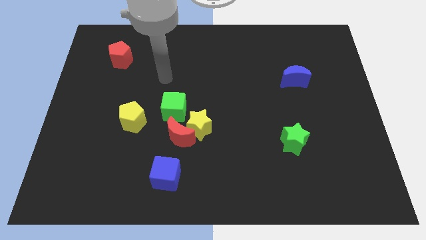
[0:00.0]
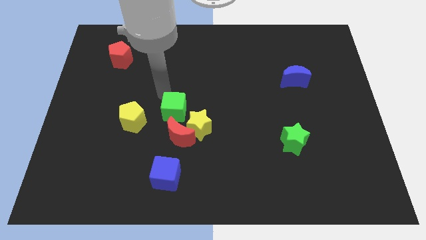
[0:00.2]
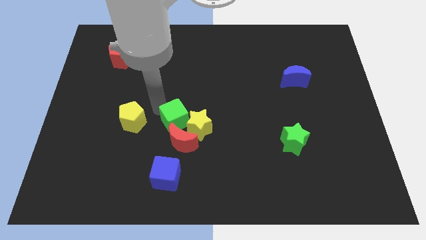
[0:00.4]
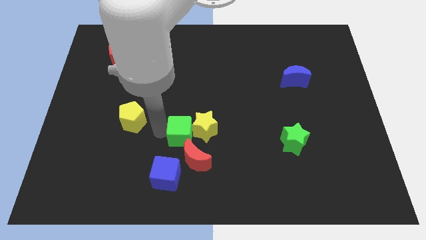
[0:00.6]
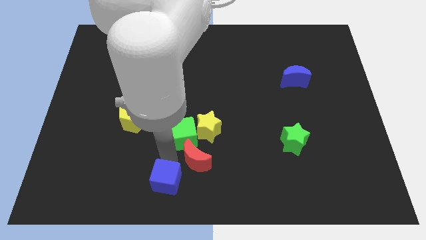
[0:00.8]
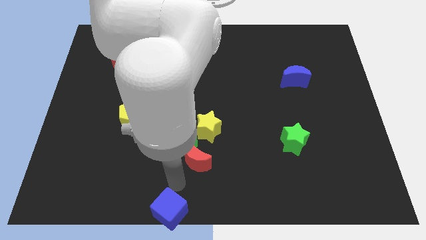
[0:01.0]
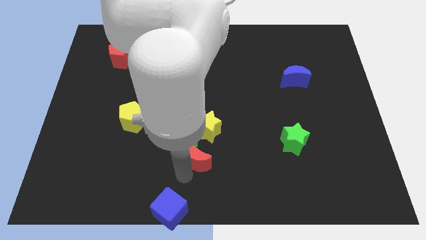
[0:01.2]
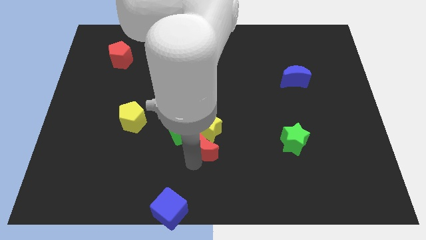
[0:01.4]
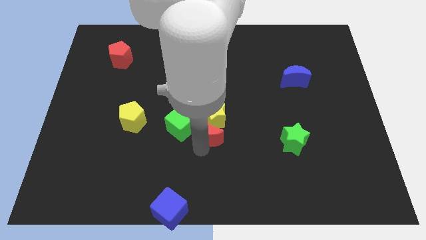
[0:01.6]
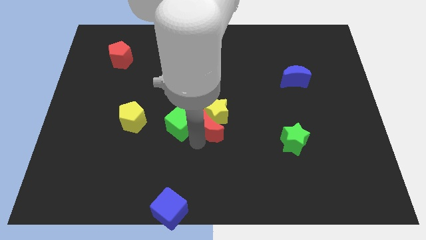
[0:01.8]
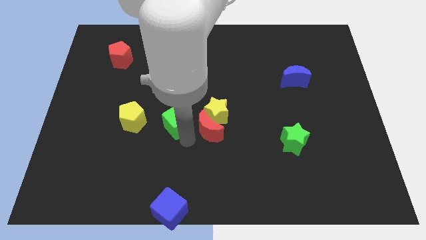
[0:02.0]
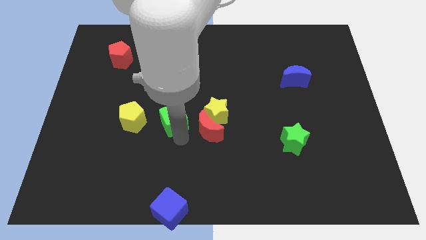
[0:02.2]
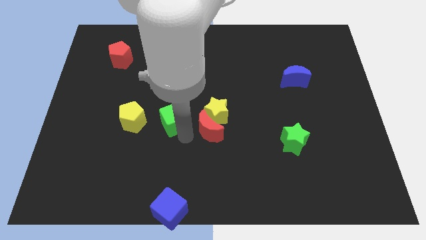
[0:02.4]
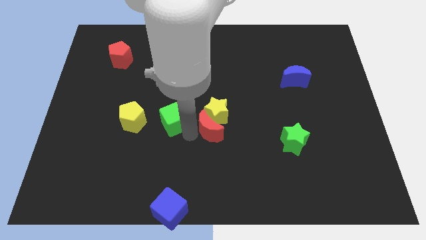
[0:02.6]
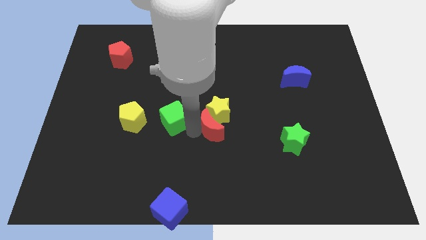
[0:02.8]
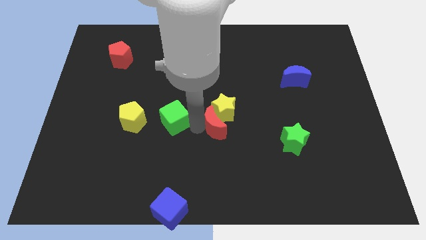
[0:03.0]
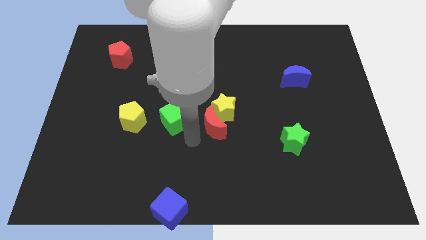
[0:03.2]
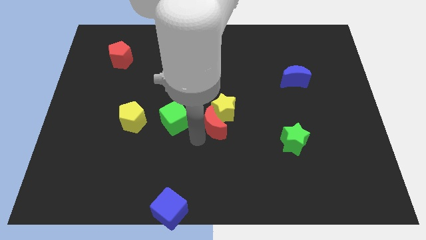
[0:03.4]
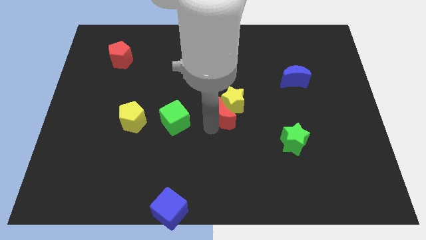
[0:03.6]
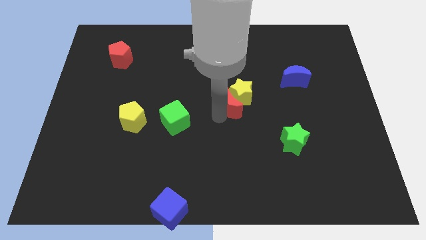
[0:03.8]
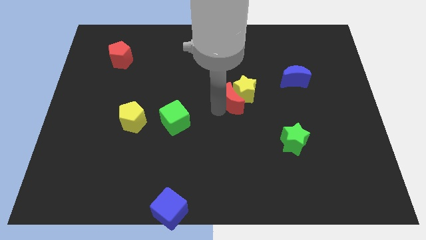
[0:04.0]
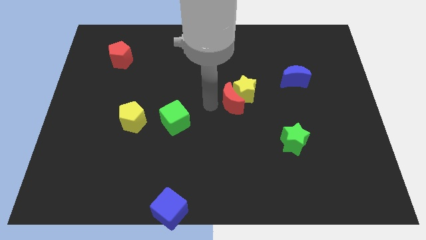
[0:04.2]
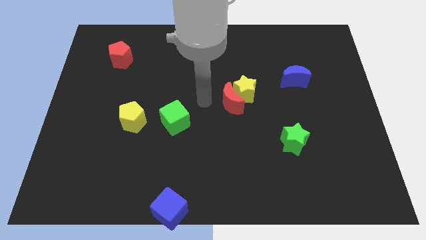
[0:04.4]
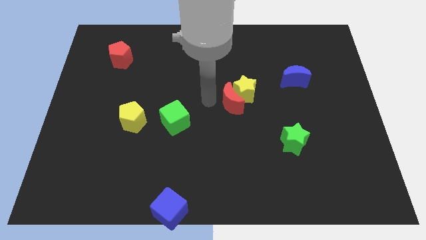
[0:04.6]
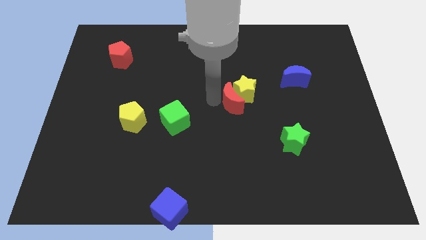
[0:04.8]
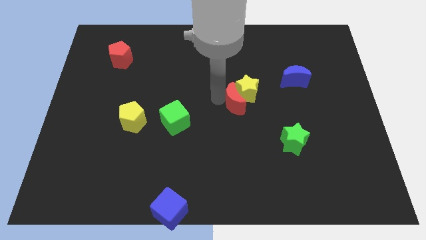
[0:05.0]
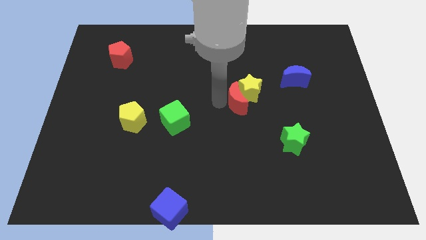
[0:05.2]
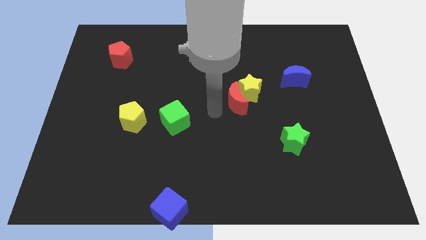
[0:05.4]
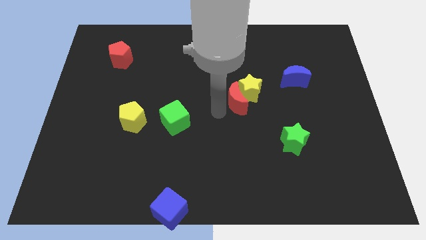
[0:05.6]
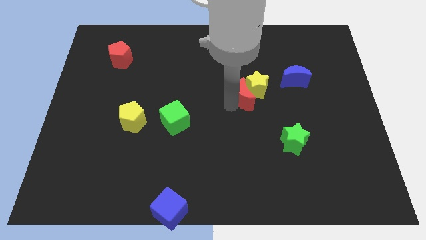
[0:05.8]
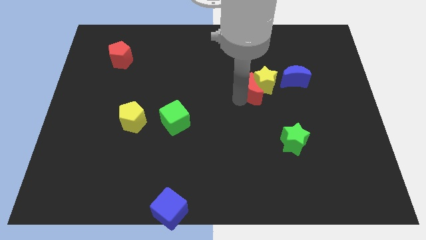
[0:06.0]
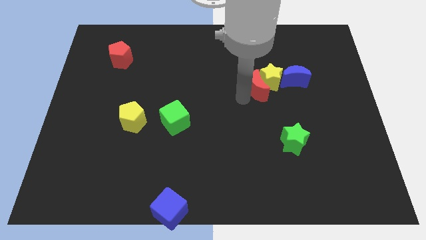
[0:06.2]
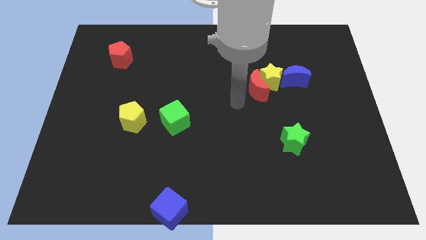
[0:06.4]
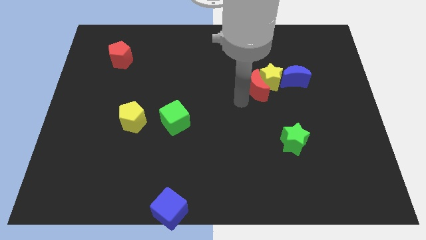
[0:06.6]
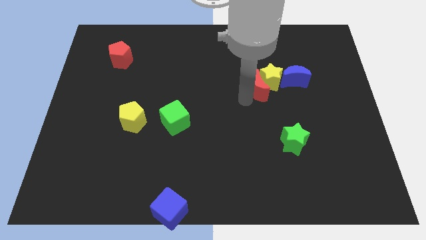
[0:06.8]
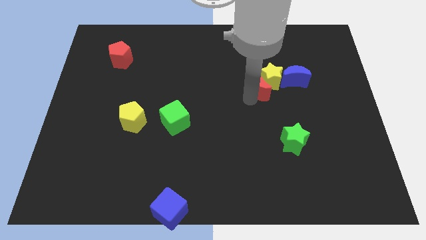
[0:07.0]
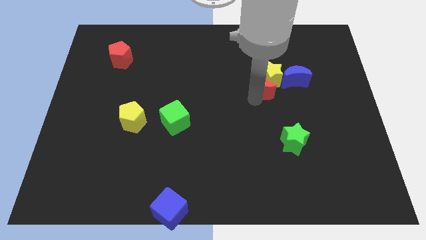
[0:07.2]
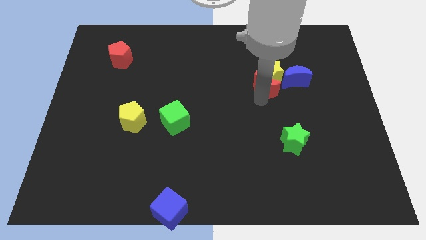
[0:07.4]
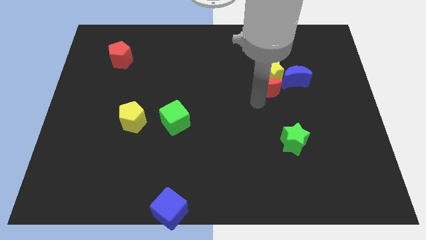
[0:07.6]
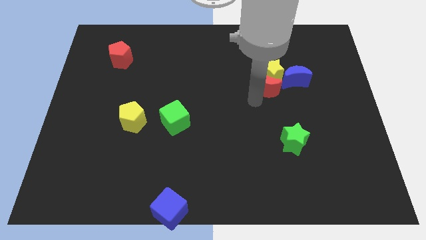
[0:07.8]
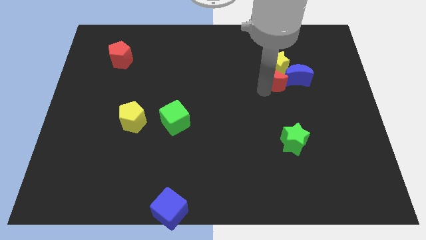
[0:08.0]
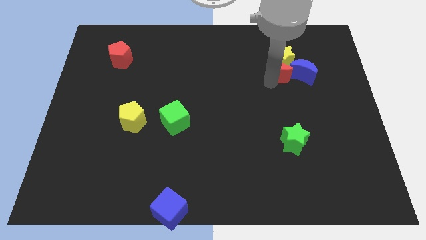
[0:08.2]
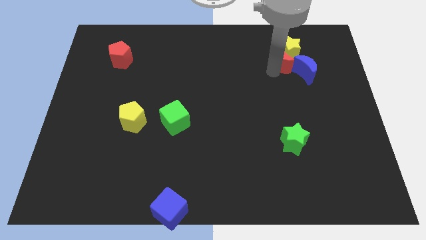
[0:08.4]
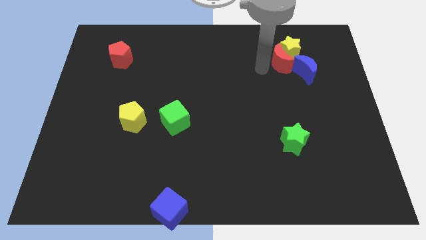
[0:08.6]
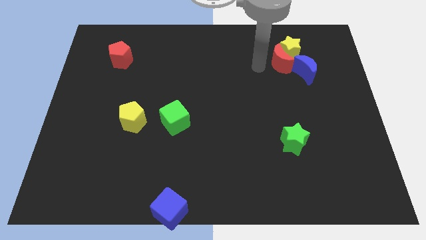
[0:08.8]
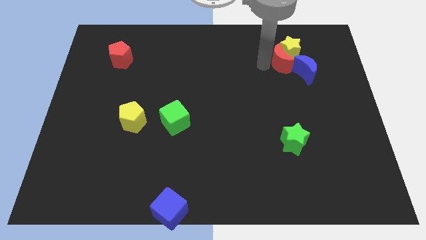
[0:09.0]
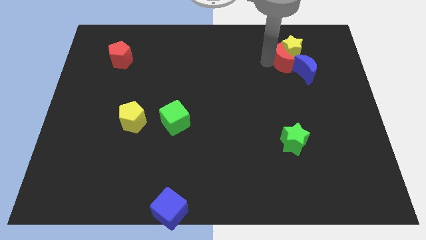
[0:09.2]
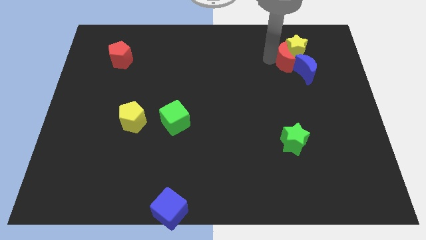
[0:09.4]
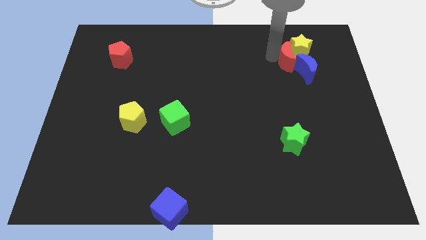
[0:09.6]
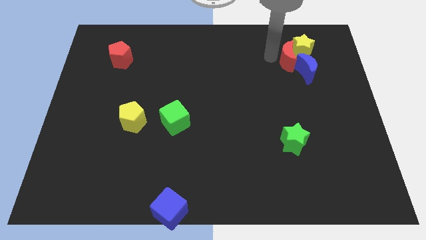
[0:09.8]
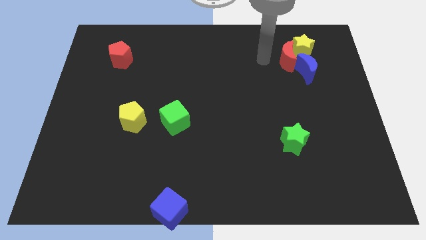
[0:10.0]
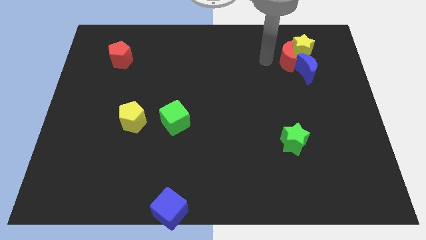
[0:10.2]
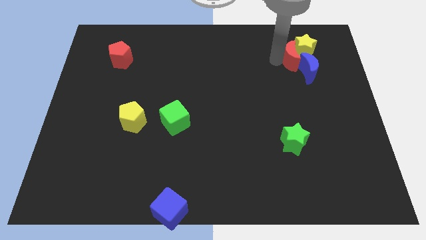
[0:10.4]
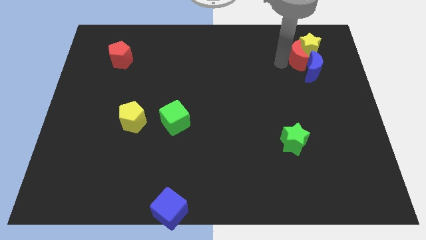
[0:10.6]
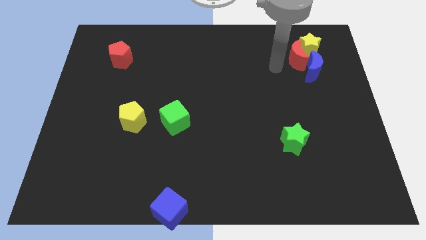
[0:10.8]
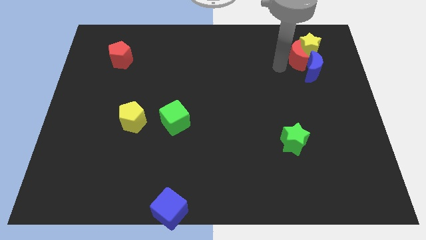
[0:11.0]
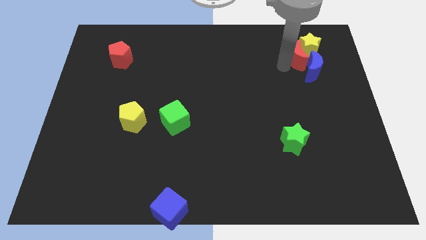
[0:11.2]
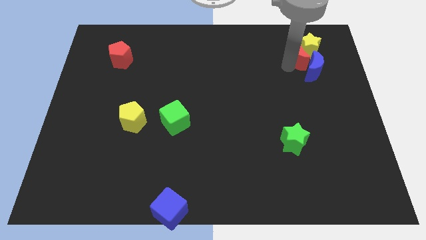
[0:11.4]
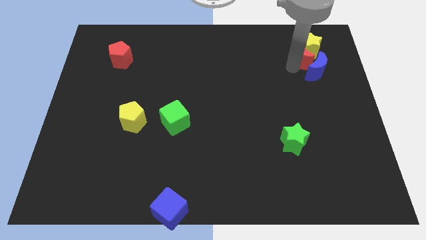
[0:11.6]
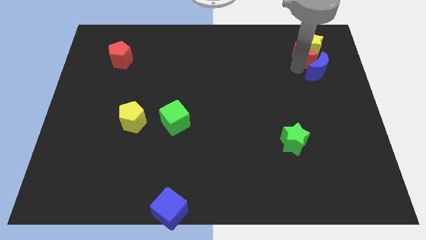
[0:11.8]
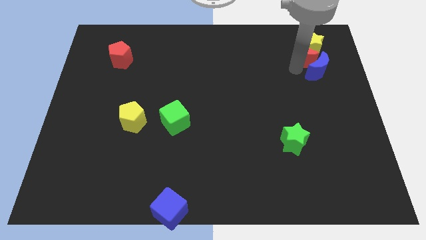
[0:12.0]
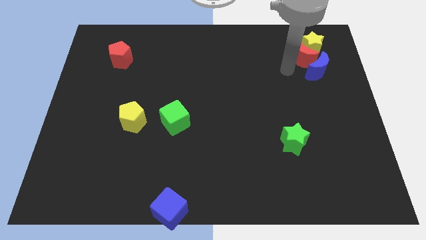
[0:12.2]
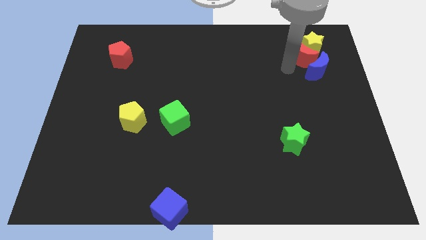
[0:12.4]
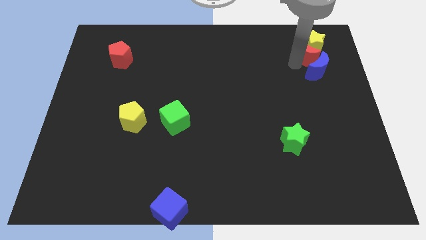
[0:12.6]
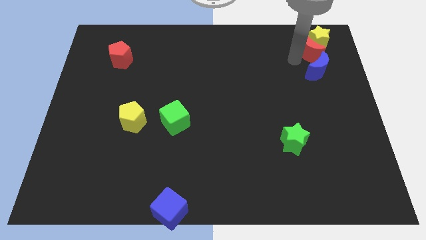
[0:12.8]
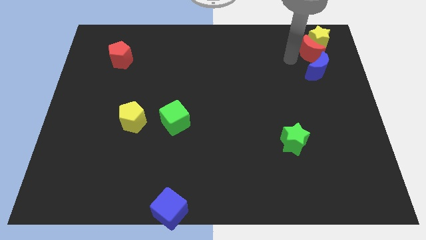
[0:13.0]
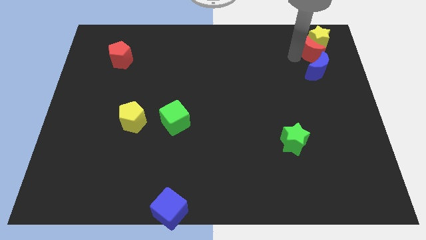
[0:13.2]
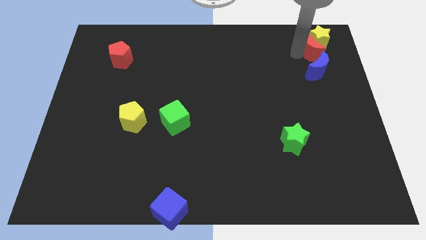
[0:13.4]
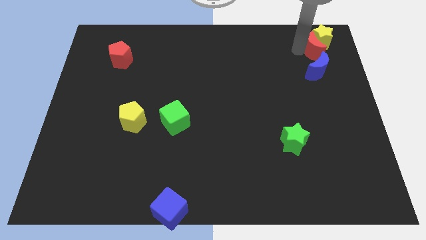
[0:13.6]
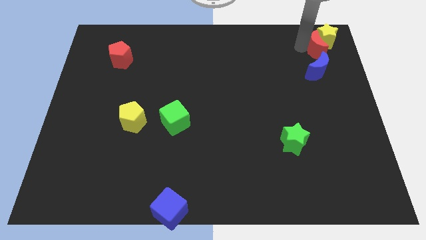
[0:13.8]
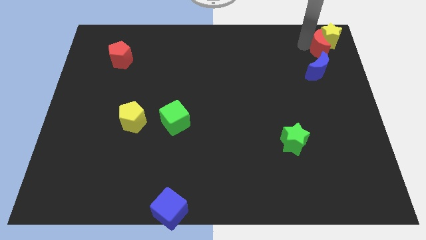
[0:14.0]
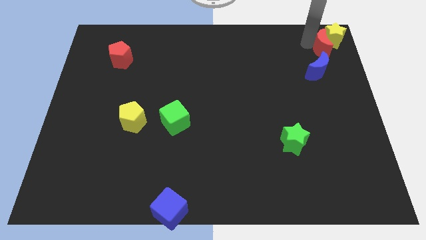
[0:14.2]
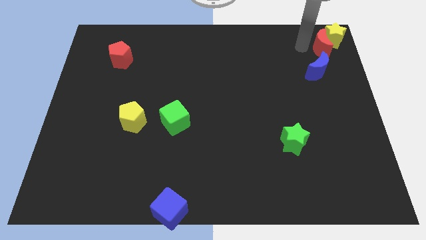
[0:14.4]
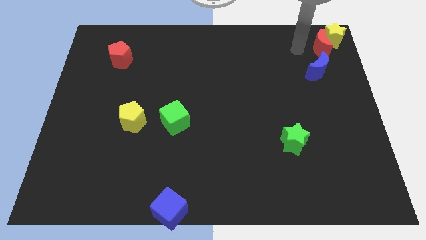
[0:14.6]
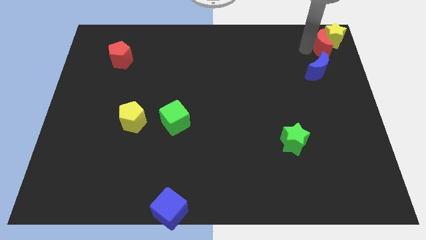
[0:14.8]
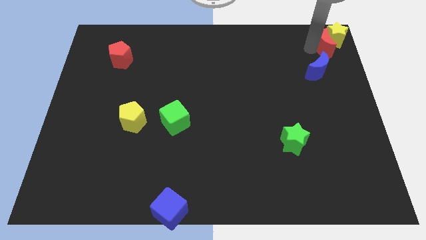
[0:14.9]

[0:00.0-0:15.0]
put the red moon to the top right corner
